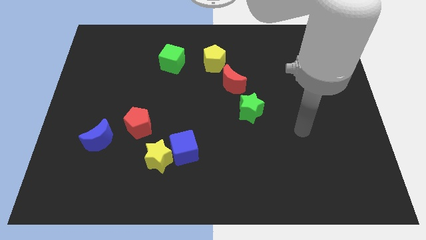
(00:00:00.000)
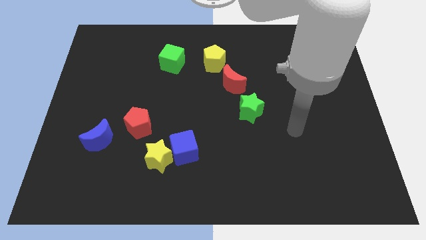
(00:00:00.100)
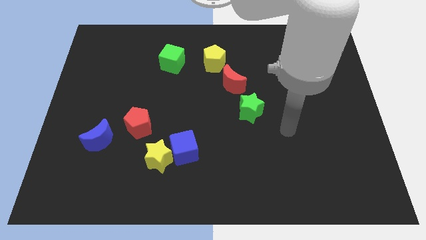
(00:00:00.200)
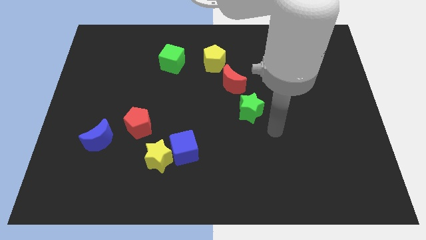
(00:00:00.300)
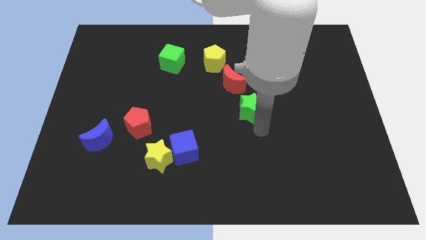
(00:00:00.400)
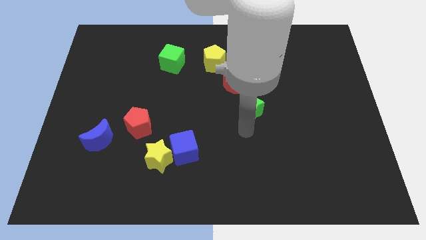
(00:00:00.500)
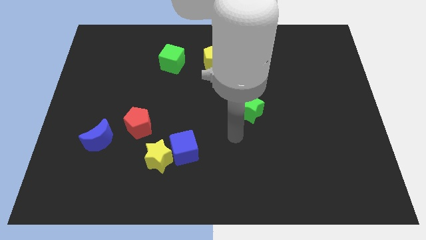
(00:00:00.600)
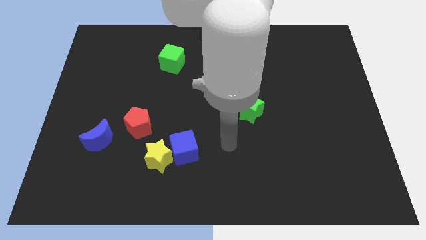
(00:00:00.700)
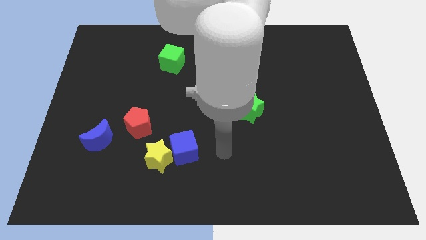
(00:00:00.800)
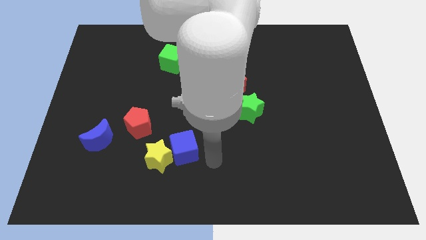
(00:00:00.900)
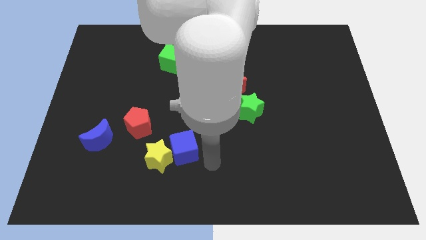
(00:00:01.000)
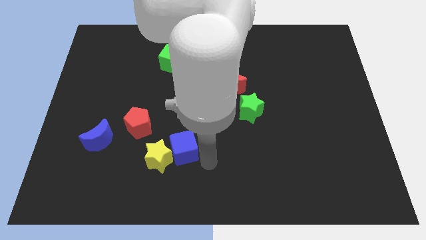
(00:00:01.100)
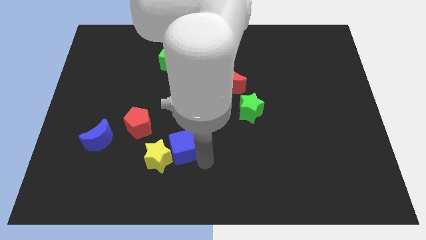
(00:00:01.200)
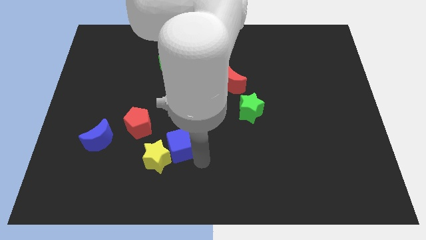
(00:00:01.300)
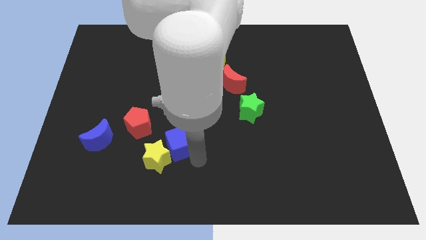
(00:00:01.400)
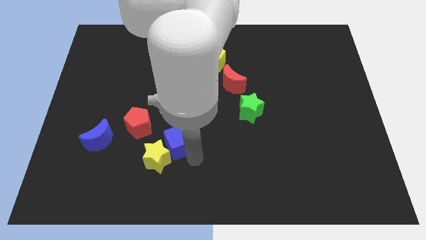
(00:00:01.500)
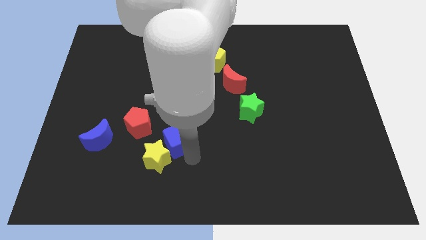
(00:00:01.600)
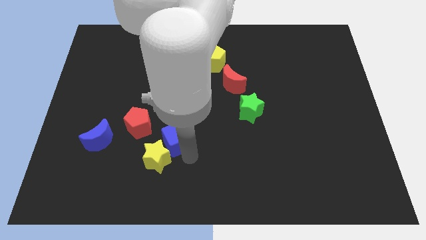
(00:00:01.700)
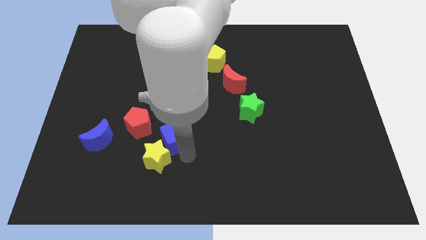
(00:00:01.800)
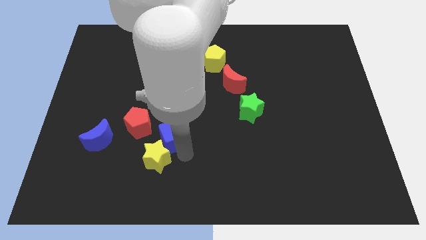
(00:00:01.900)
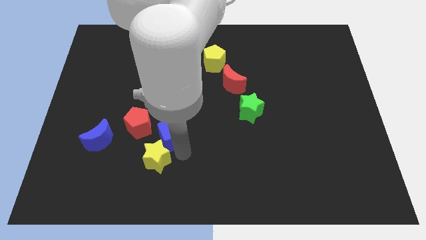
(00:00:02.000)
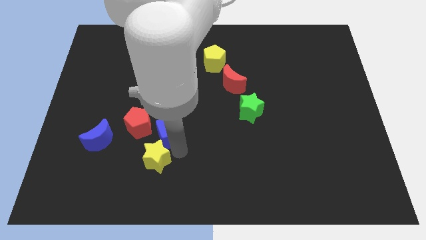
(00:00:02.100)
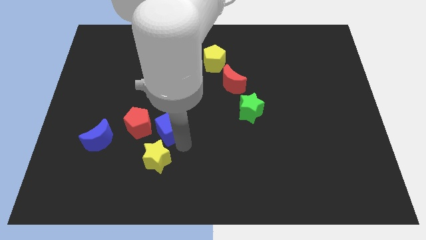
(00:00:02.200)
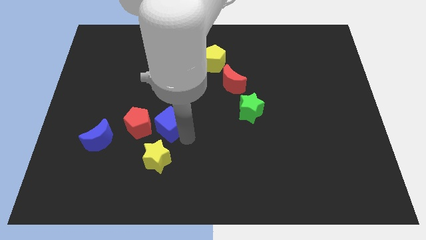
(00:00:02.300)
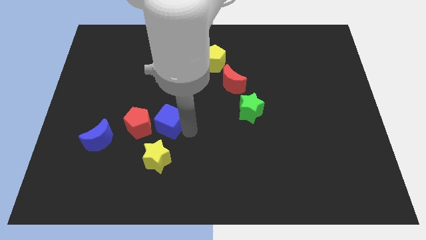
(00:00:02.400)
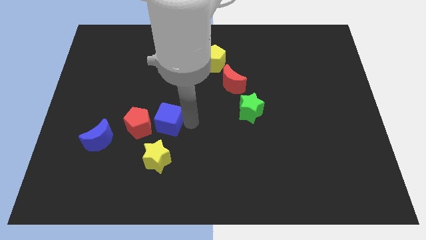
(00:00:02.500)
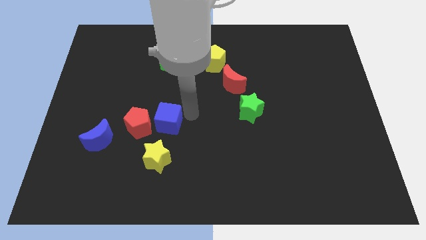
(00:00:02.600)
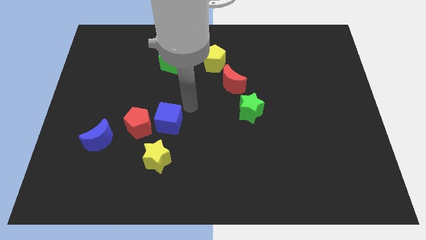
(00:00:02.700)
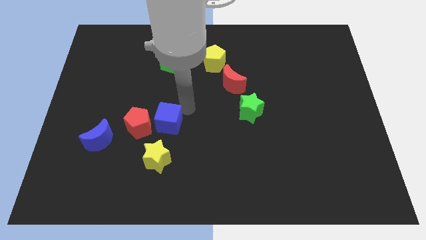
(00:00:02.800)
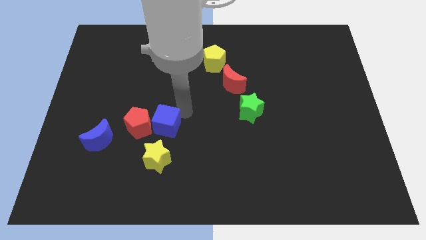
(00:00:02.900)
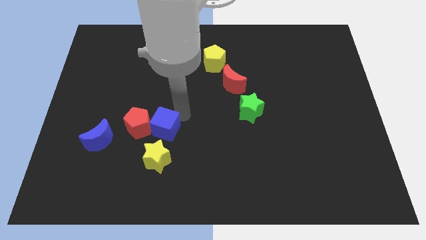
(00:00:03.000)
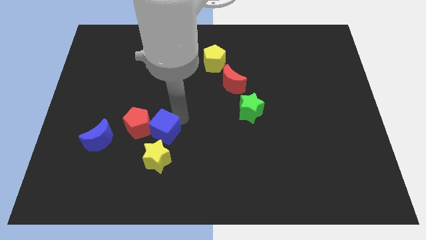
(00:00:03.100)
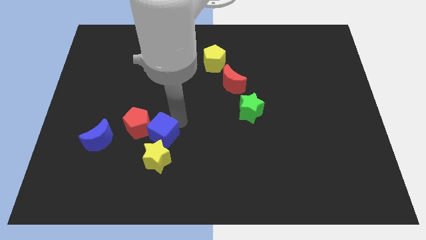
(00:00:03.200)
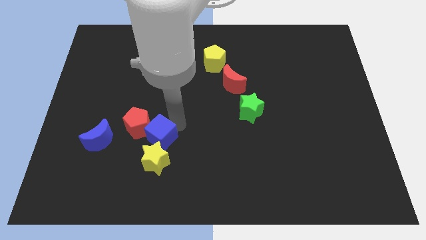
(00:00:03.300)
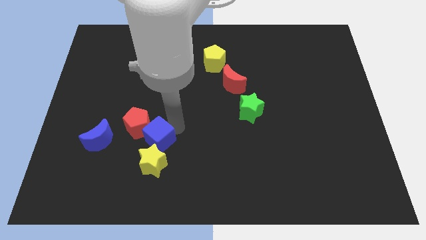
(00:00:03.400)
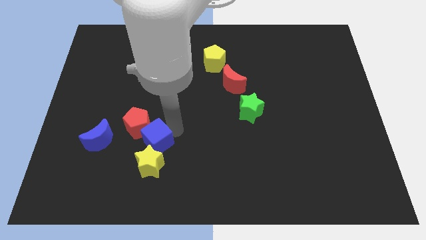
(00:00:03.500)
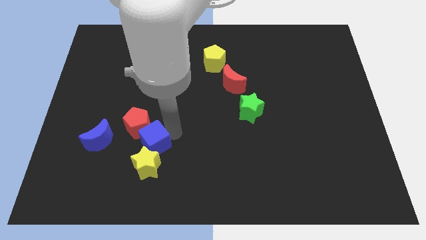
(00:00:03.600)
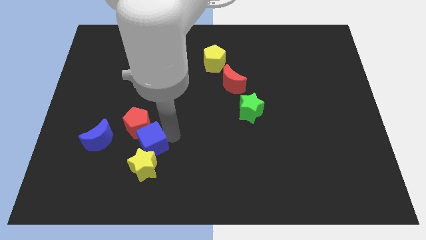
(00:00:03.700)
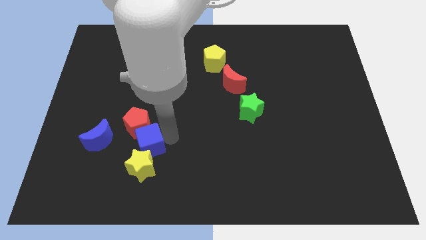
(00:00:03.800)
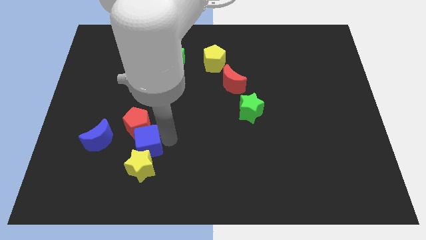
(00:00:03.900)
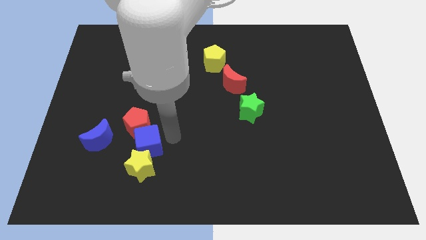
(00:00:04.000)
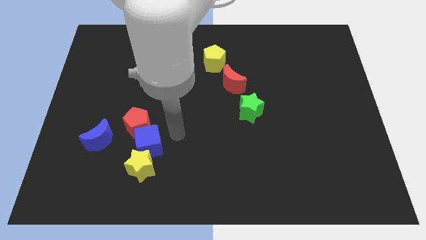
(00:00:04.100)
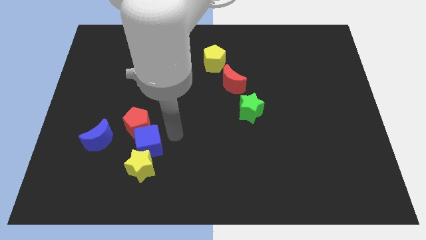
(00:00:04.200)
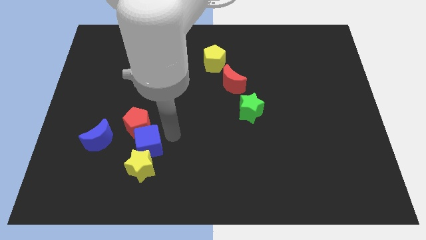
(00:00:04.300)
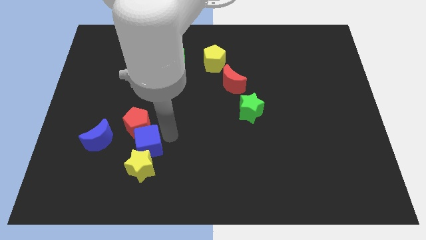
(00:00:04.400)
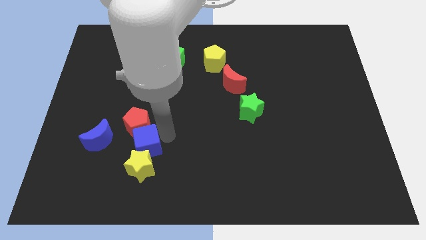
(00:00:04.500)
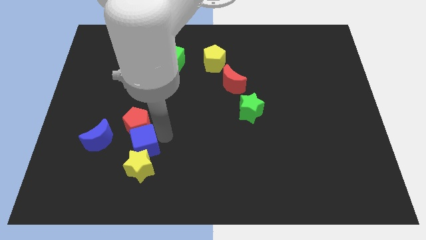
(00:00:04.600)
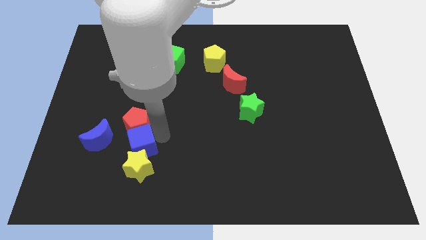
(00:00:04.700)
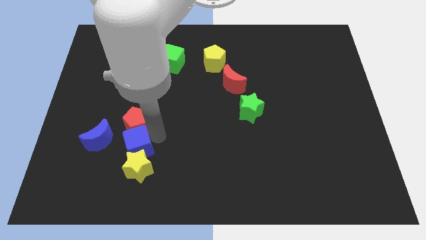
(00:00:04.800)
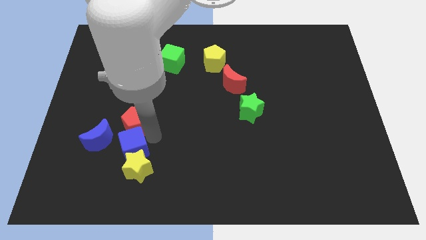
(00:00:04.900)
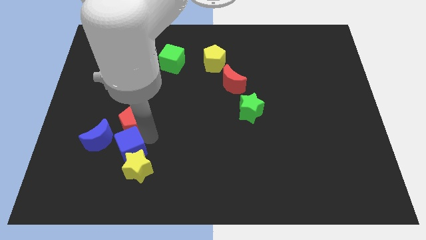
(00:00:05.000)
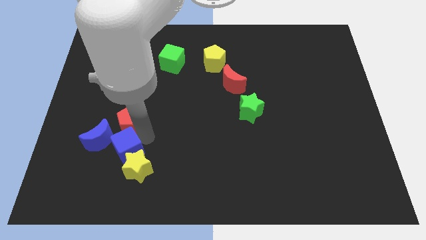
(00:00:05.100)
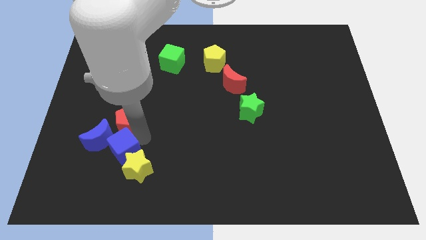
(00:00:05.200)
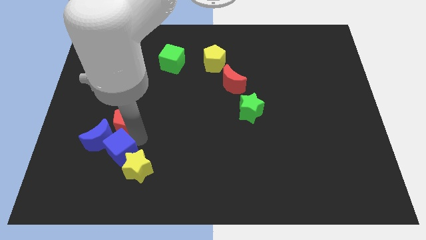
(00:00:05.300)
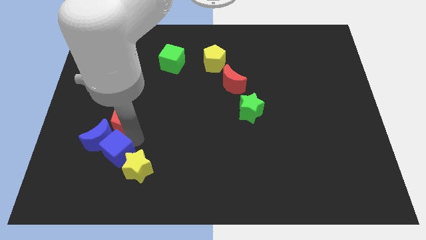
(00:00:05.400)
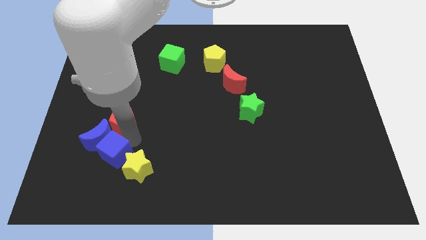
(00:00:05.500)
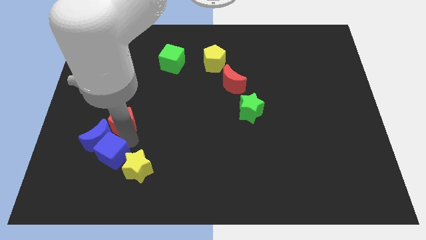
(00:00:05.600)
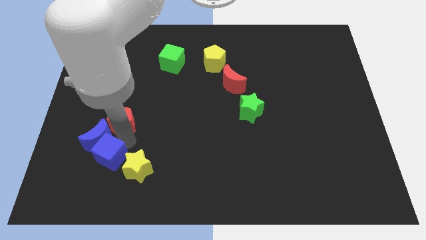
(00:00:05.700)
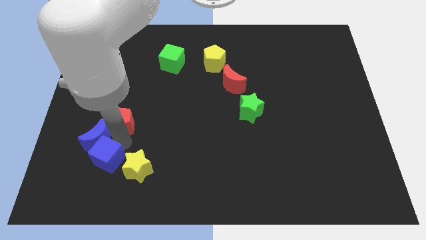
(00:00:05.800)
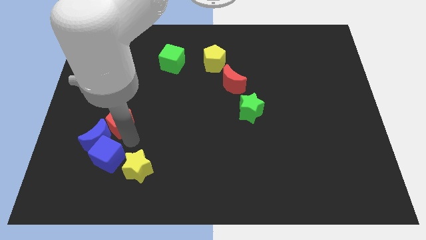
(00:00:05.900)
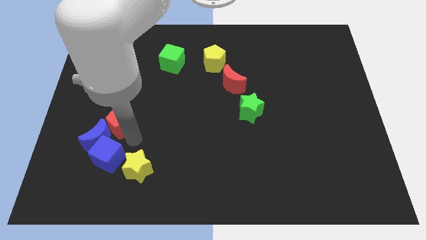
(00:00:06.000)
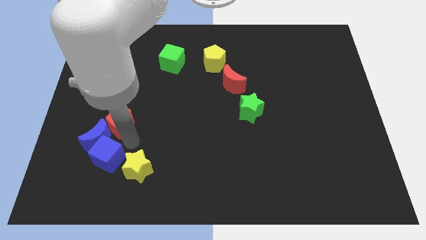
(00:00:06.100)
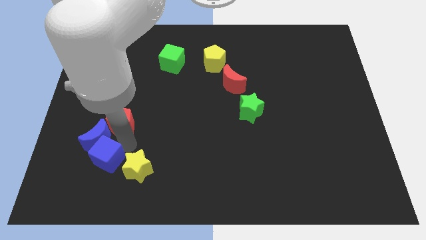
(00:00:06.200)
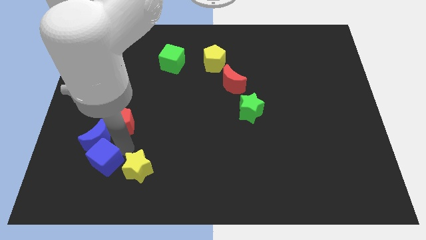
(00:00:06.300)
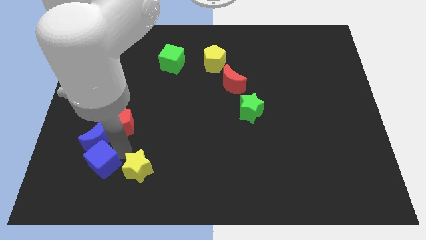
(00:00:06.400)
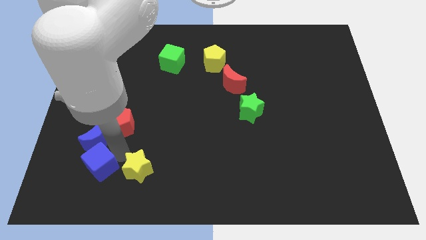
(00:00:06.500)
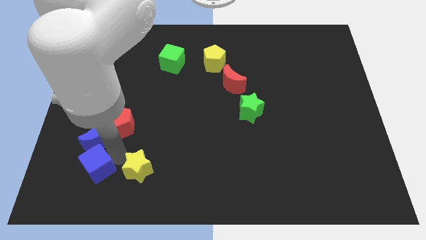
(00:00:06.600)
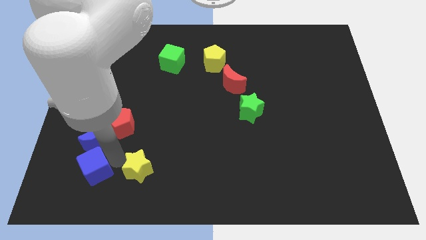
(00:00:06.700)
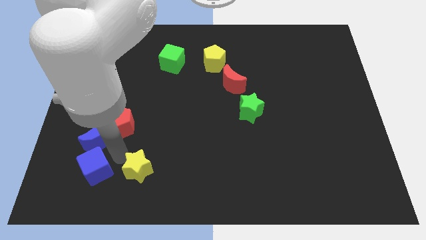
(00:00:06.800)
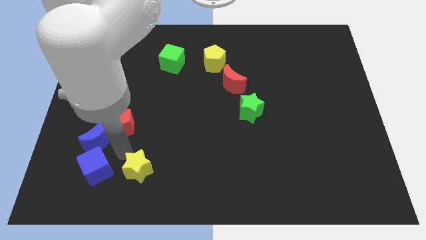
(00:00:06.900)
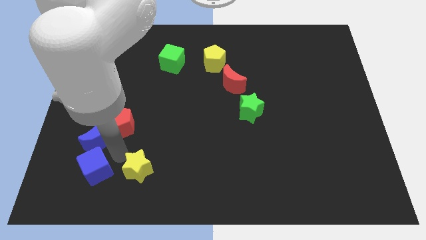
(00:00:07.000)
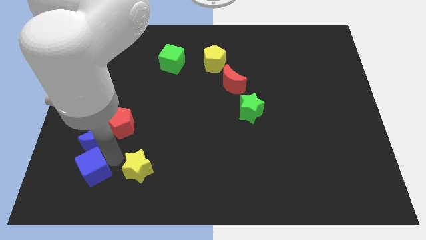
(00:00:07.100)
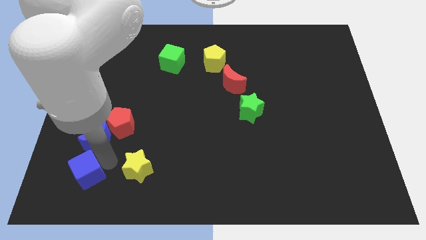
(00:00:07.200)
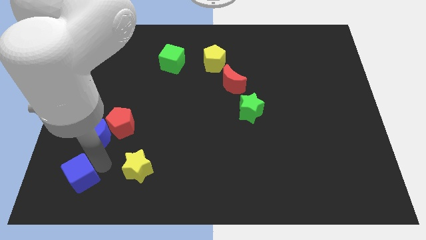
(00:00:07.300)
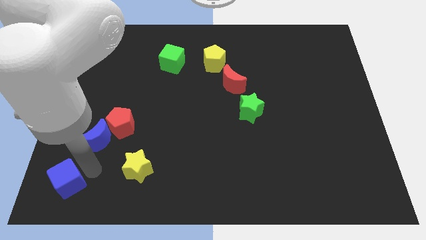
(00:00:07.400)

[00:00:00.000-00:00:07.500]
push the blue cube to the lower left corner
